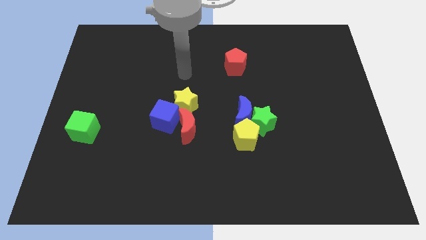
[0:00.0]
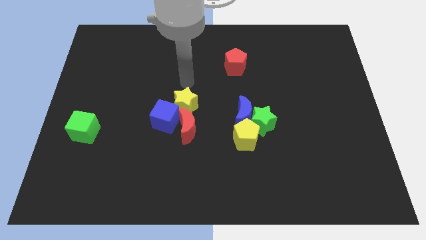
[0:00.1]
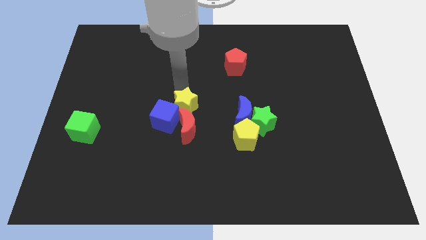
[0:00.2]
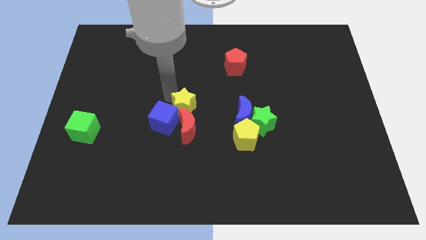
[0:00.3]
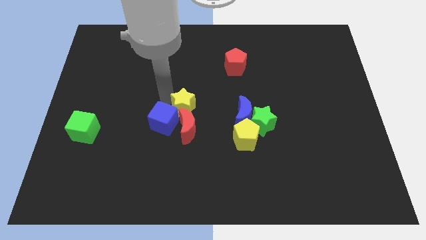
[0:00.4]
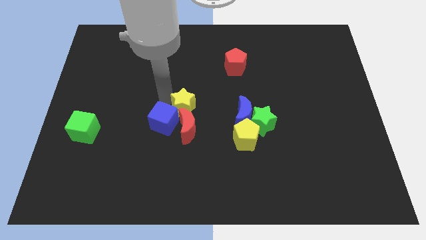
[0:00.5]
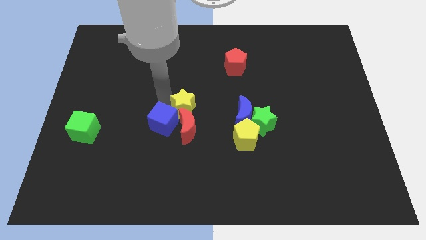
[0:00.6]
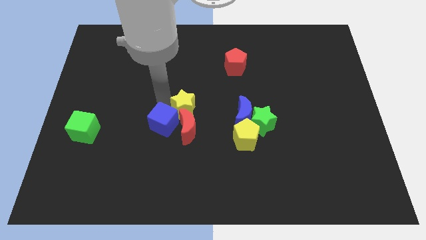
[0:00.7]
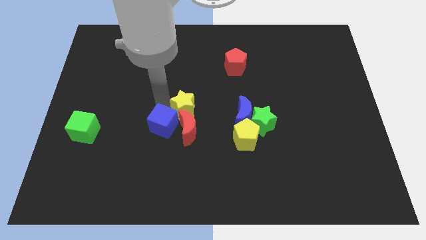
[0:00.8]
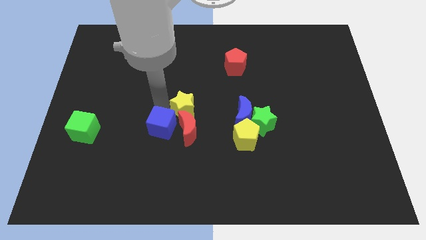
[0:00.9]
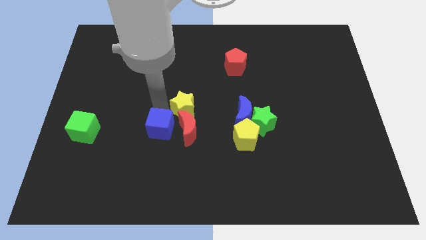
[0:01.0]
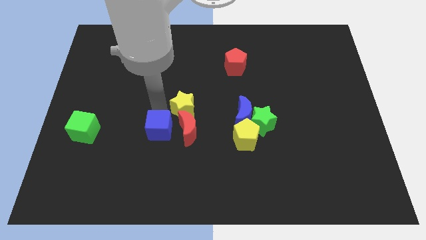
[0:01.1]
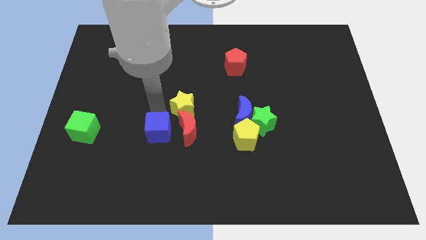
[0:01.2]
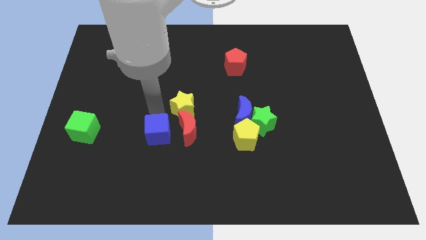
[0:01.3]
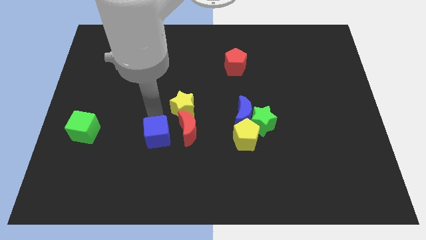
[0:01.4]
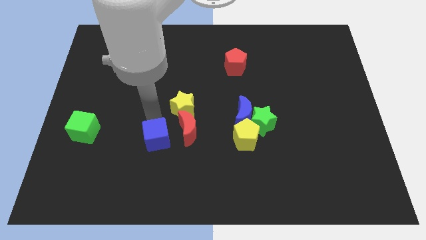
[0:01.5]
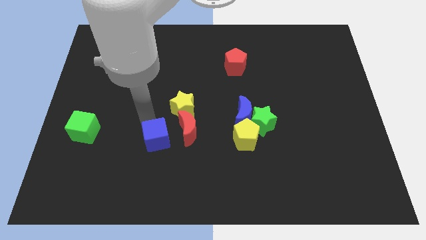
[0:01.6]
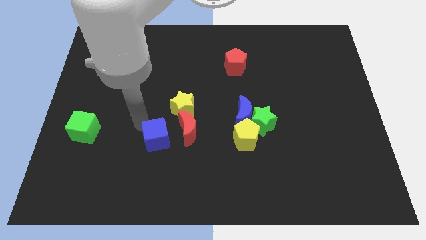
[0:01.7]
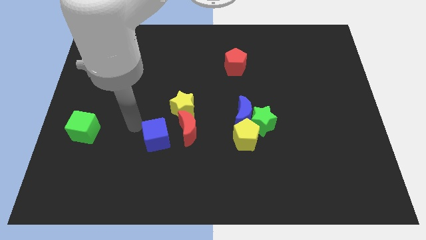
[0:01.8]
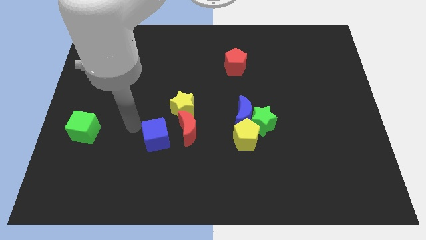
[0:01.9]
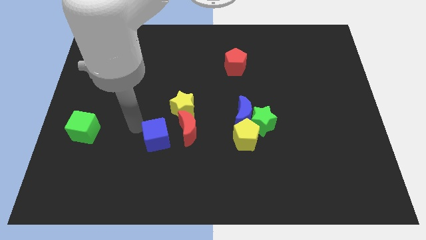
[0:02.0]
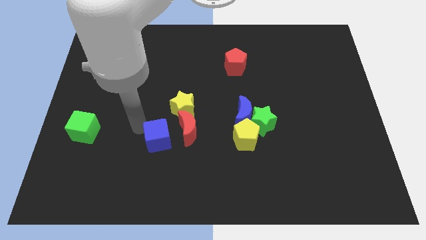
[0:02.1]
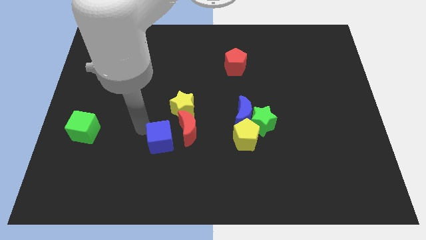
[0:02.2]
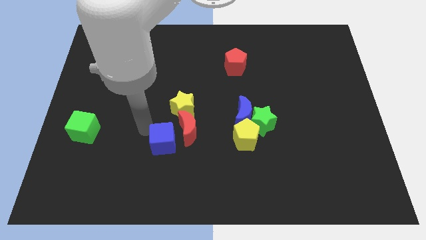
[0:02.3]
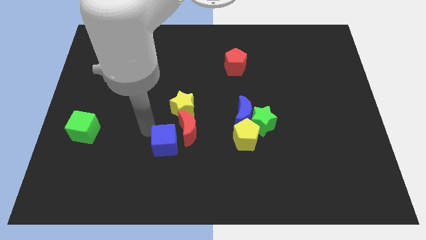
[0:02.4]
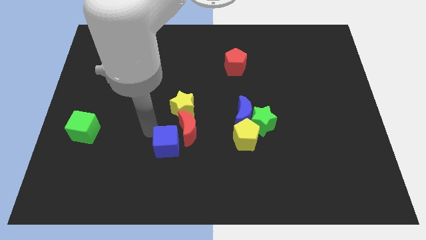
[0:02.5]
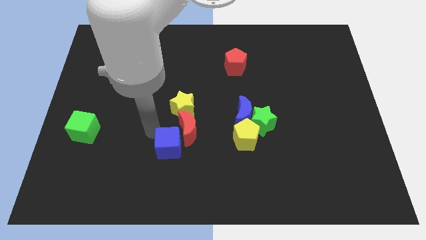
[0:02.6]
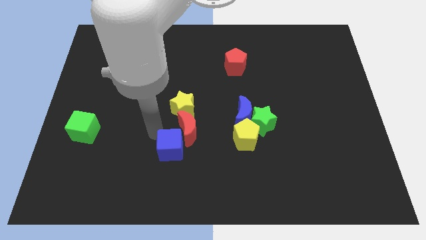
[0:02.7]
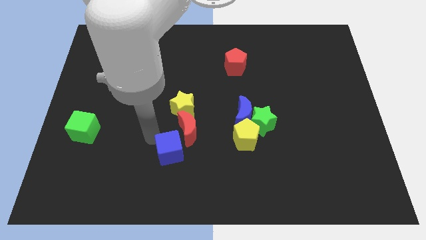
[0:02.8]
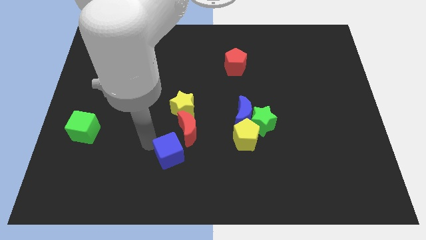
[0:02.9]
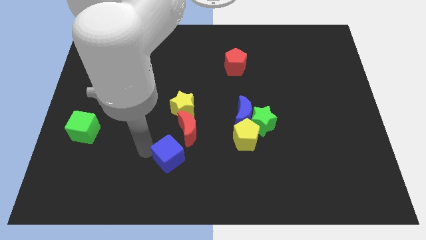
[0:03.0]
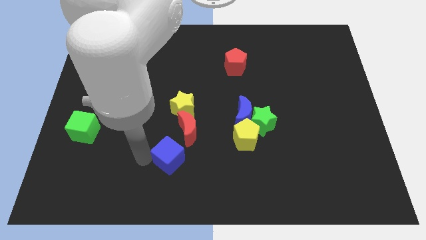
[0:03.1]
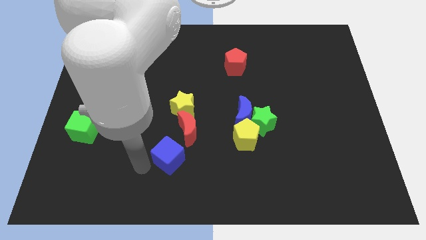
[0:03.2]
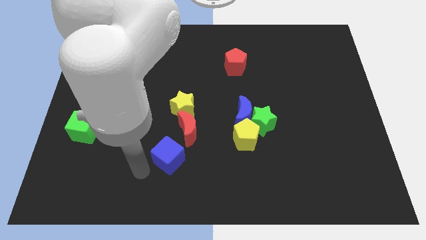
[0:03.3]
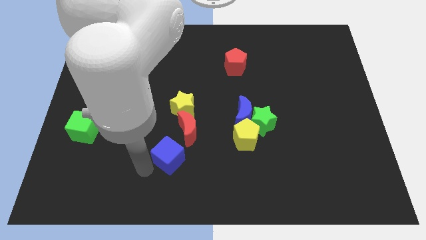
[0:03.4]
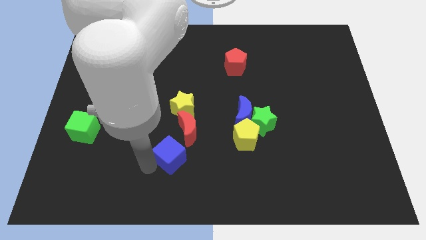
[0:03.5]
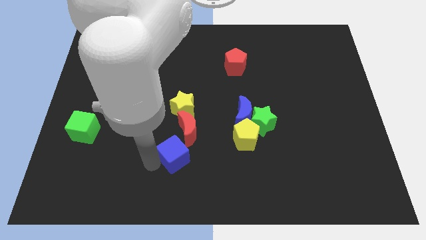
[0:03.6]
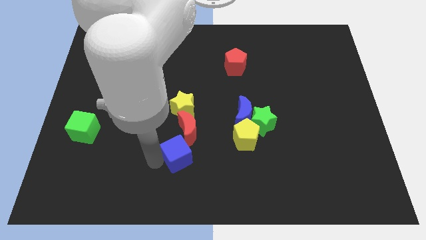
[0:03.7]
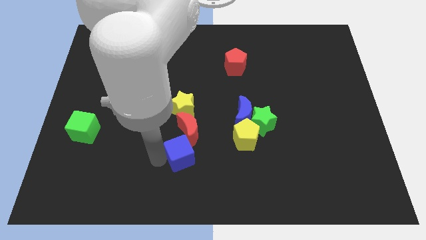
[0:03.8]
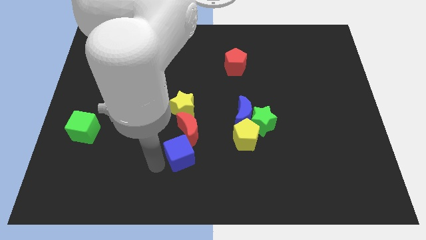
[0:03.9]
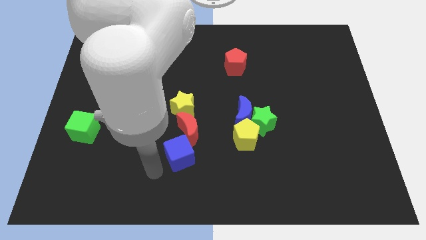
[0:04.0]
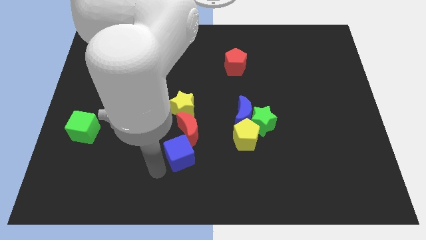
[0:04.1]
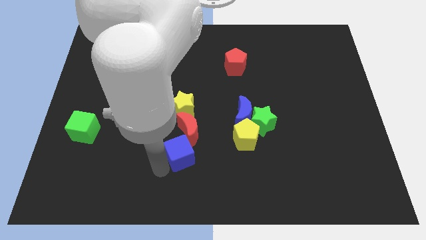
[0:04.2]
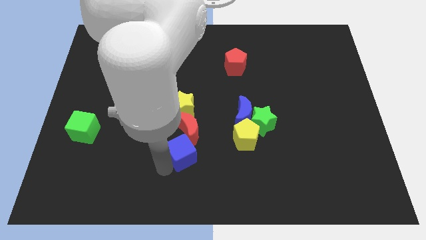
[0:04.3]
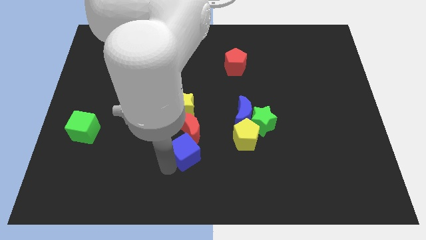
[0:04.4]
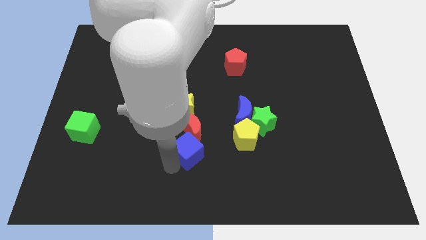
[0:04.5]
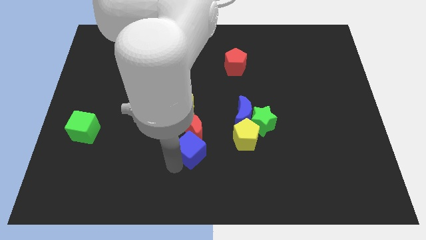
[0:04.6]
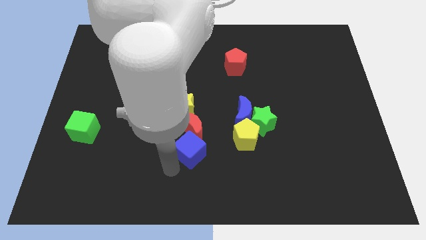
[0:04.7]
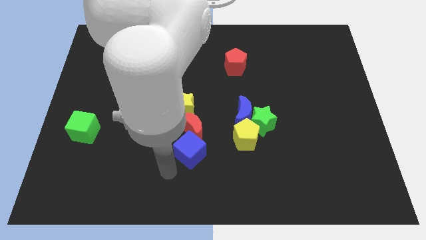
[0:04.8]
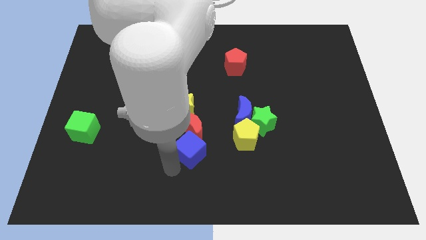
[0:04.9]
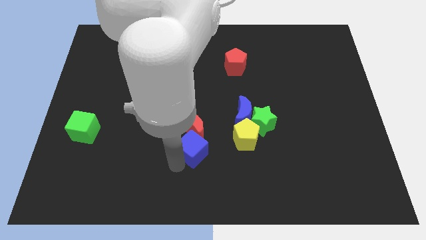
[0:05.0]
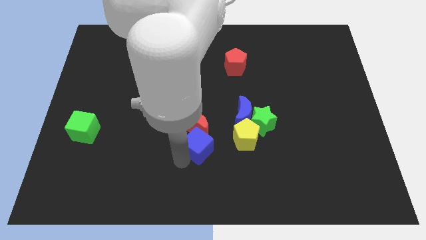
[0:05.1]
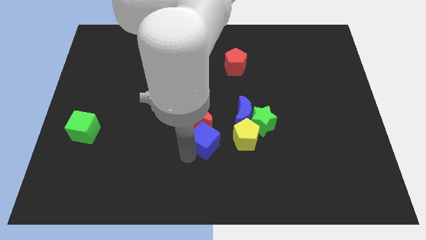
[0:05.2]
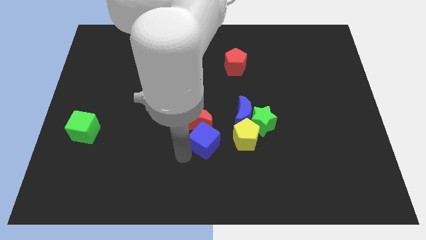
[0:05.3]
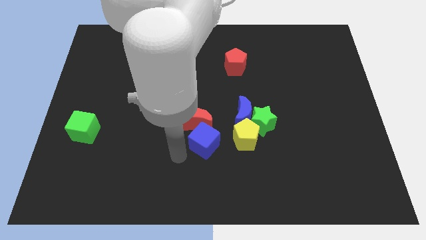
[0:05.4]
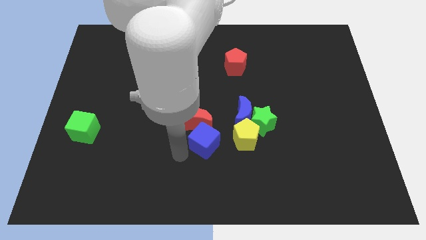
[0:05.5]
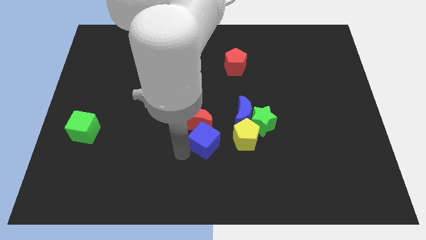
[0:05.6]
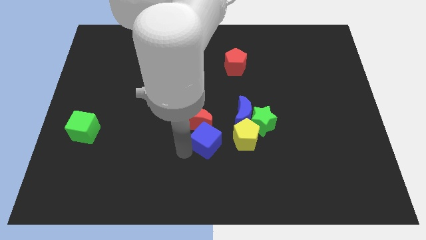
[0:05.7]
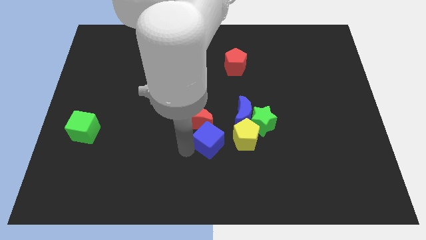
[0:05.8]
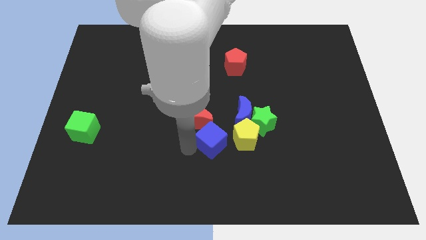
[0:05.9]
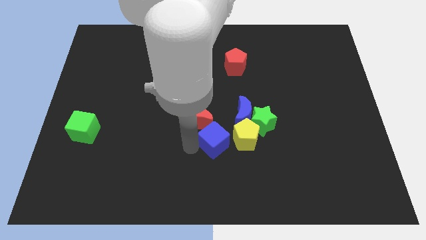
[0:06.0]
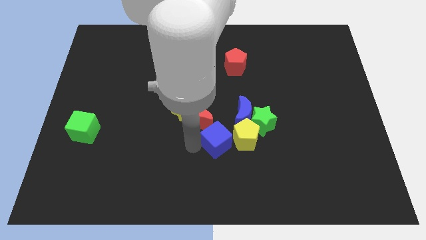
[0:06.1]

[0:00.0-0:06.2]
move the blue cube next to the yellow pentagon
